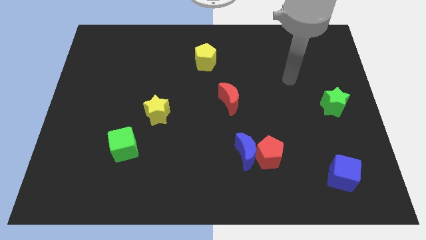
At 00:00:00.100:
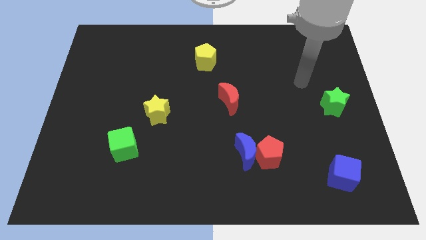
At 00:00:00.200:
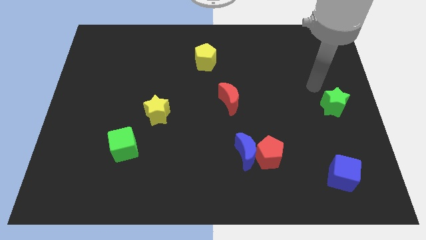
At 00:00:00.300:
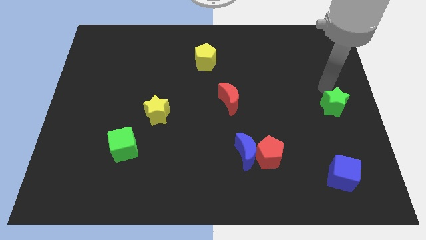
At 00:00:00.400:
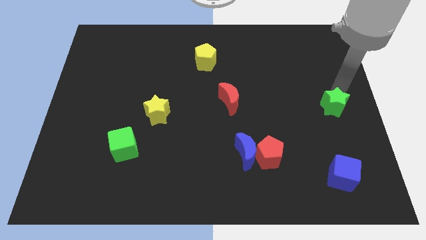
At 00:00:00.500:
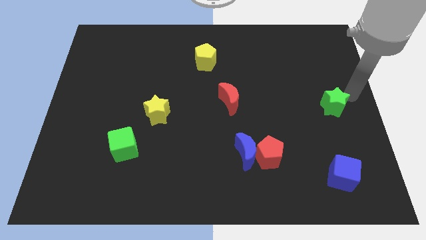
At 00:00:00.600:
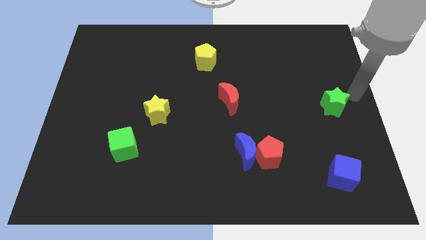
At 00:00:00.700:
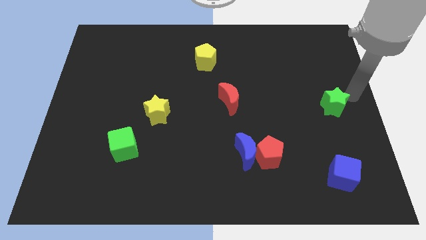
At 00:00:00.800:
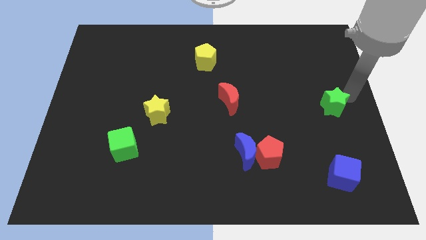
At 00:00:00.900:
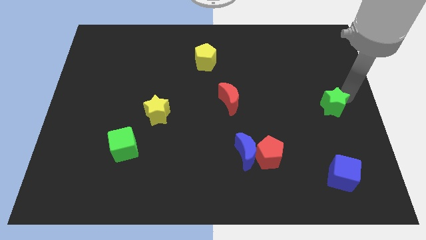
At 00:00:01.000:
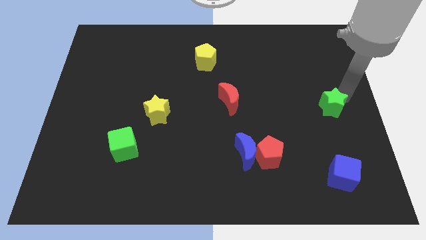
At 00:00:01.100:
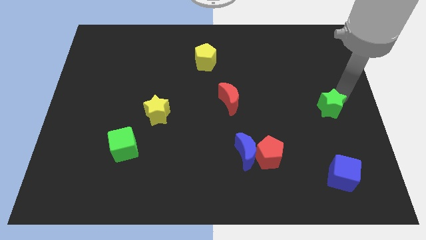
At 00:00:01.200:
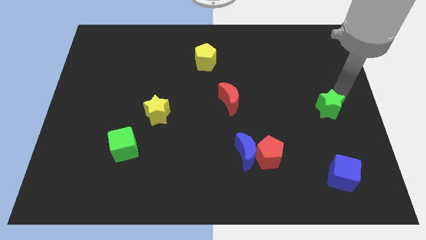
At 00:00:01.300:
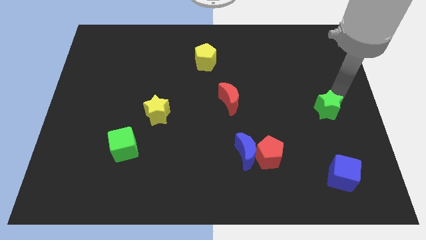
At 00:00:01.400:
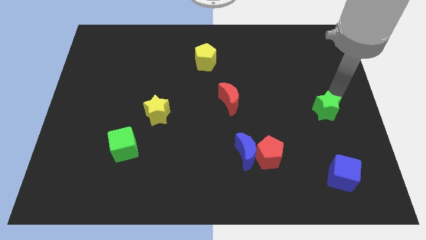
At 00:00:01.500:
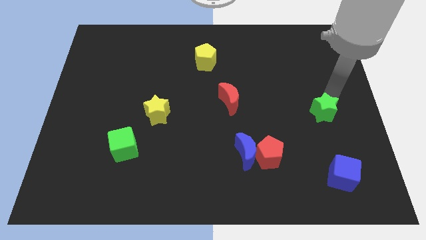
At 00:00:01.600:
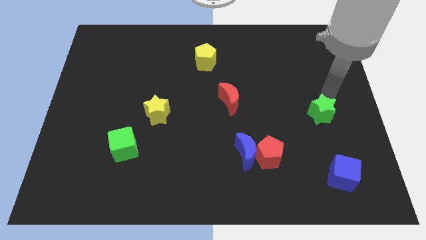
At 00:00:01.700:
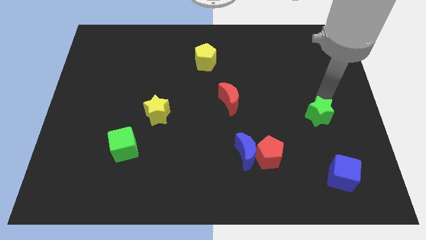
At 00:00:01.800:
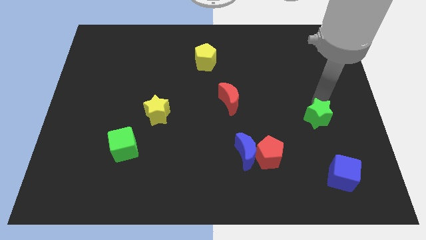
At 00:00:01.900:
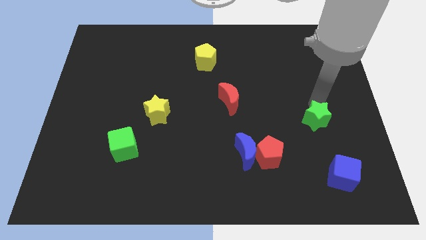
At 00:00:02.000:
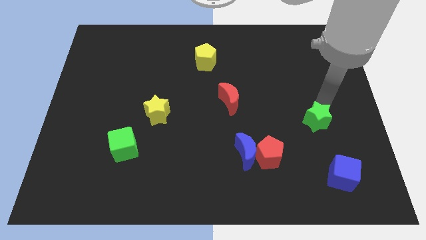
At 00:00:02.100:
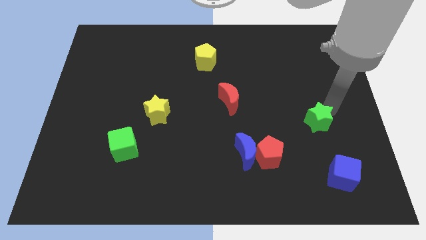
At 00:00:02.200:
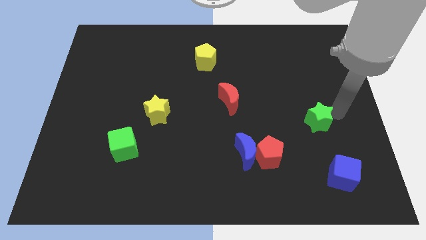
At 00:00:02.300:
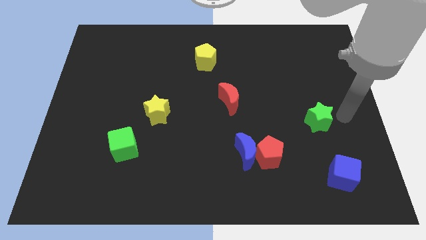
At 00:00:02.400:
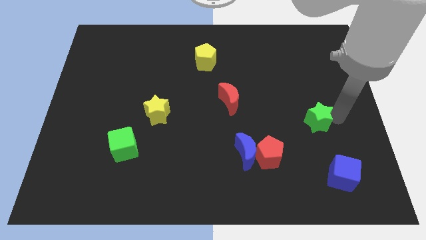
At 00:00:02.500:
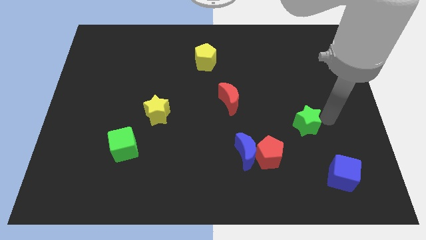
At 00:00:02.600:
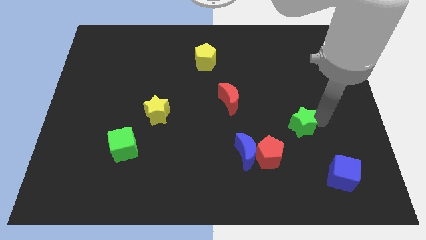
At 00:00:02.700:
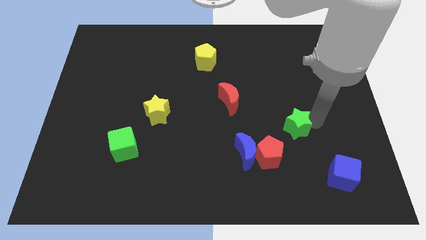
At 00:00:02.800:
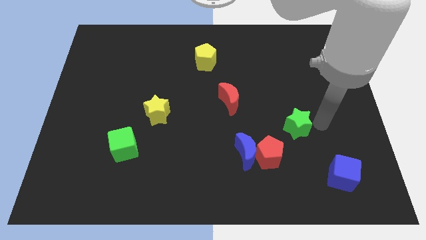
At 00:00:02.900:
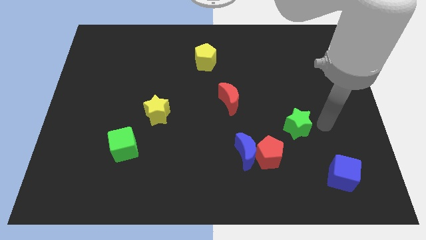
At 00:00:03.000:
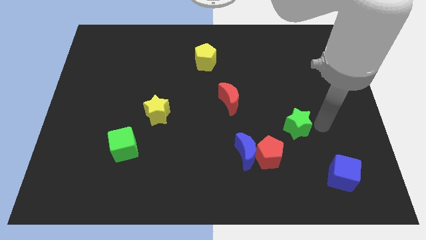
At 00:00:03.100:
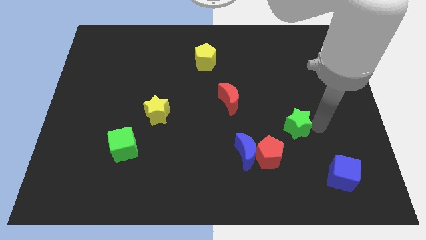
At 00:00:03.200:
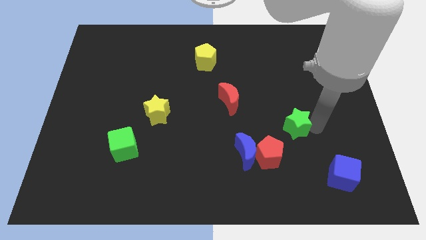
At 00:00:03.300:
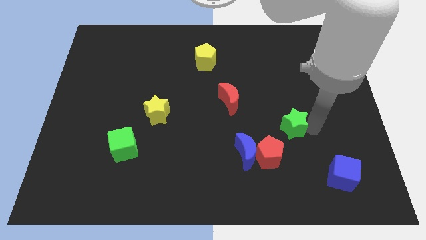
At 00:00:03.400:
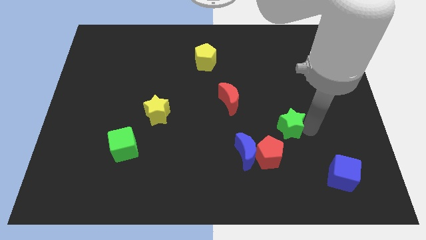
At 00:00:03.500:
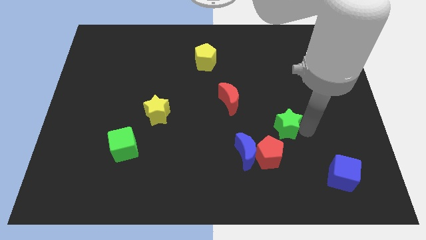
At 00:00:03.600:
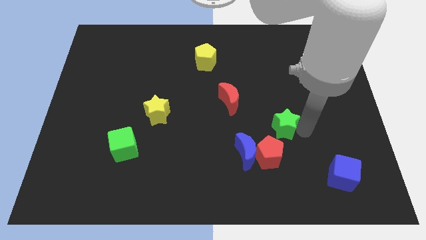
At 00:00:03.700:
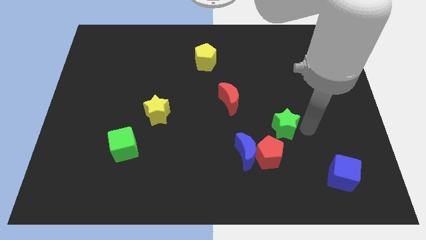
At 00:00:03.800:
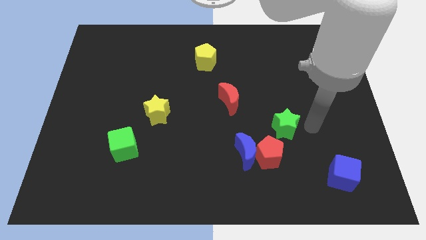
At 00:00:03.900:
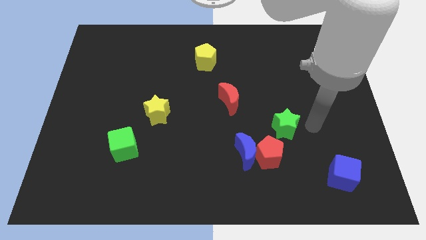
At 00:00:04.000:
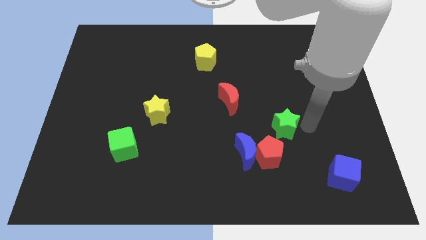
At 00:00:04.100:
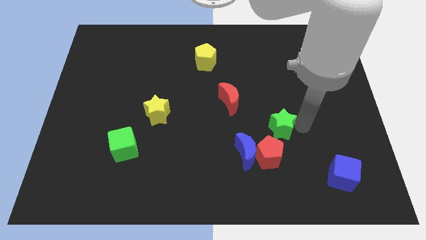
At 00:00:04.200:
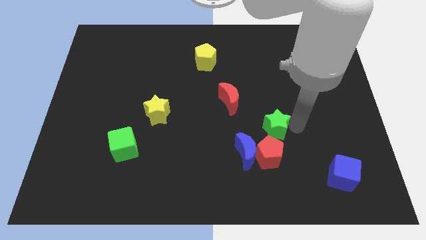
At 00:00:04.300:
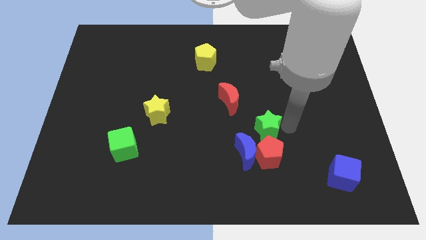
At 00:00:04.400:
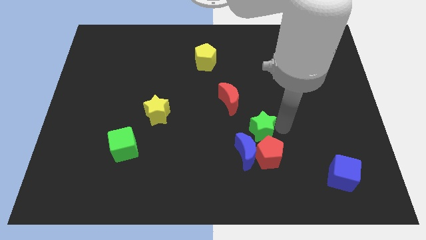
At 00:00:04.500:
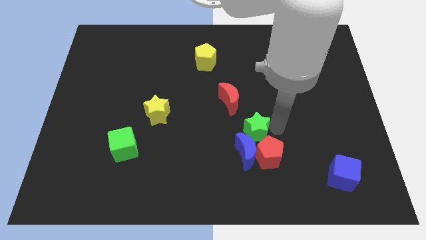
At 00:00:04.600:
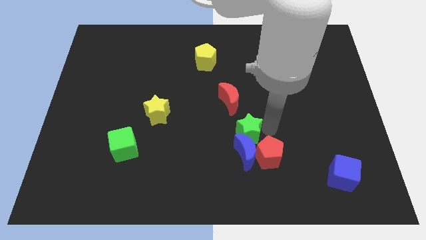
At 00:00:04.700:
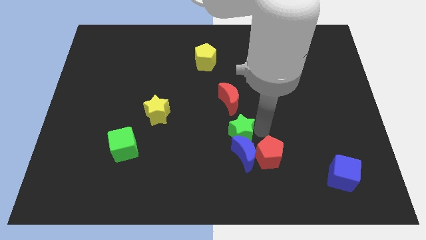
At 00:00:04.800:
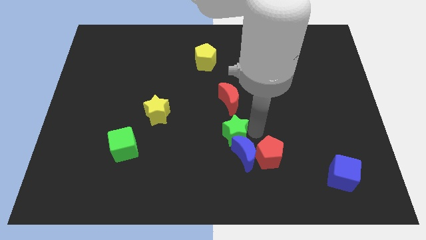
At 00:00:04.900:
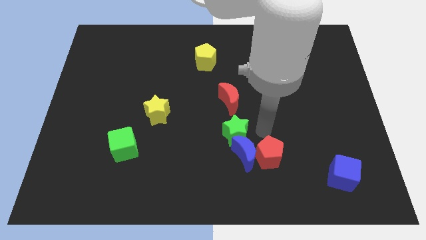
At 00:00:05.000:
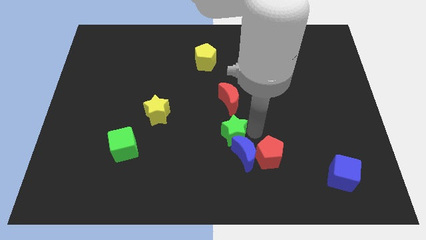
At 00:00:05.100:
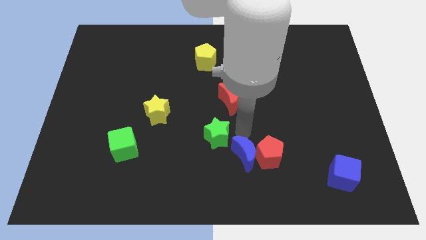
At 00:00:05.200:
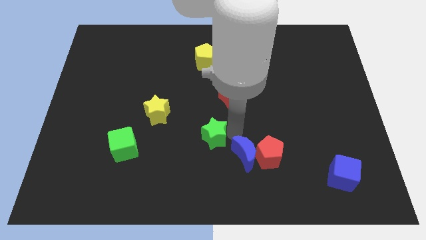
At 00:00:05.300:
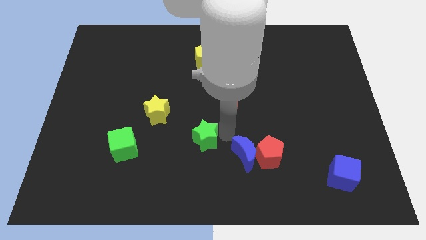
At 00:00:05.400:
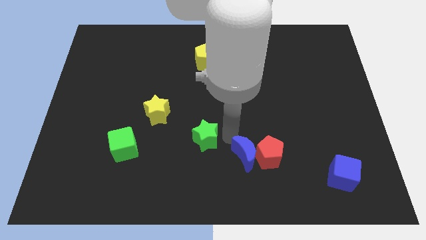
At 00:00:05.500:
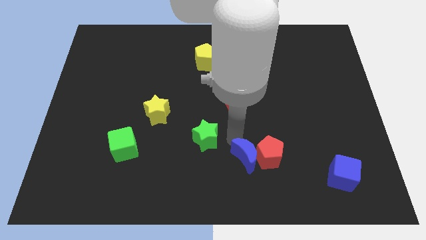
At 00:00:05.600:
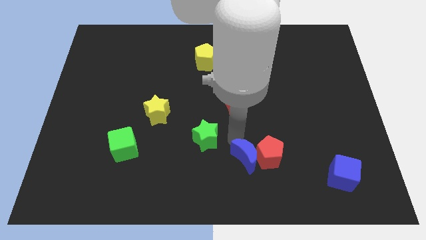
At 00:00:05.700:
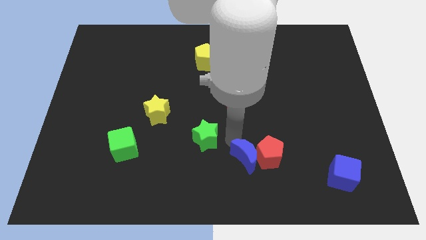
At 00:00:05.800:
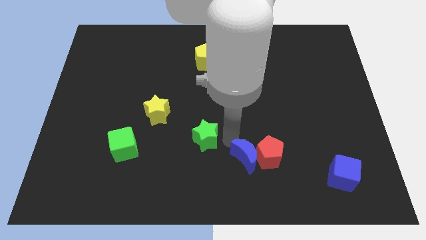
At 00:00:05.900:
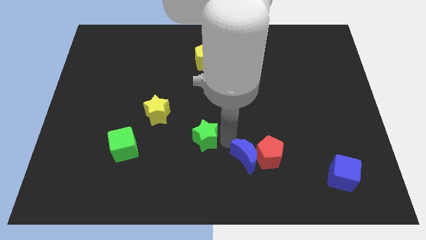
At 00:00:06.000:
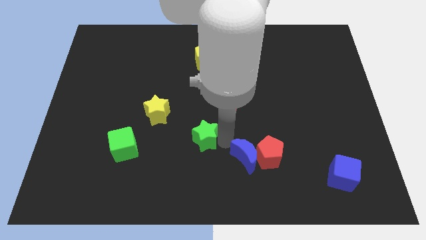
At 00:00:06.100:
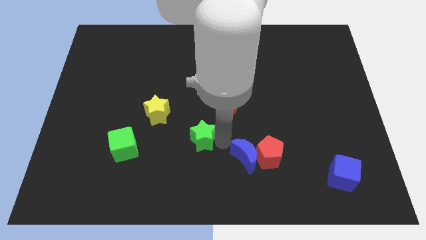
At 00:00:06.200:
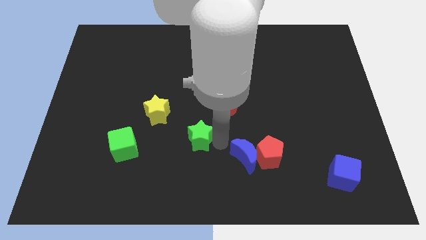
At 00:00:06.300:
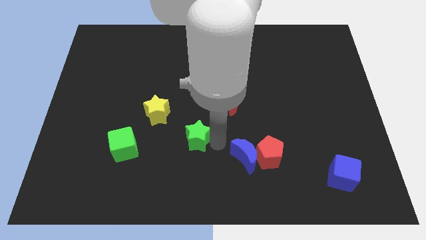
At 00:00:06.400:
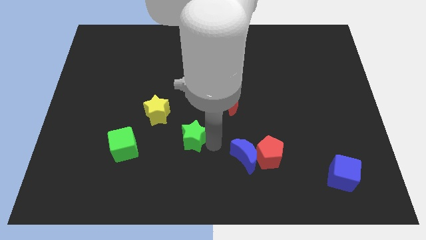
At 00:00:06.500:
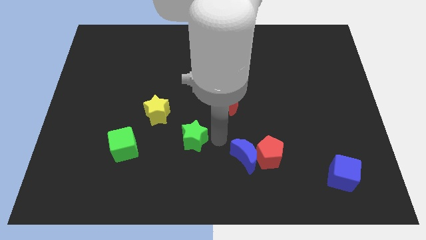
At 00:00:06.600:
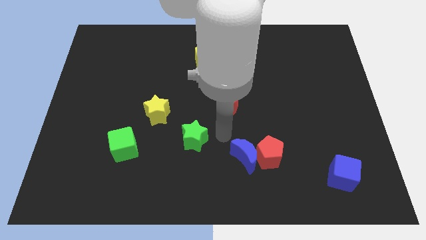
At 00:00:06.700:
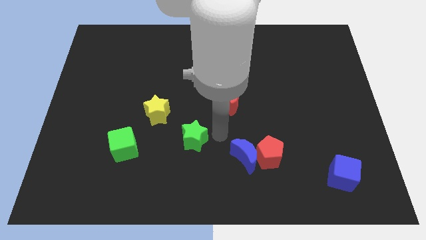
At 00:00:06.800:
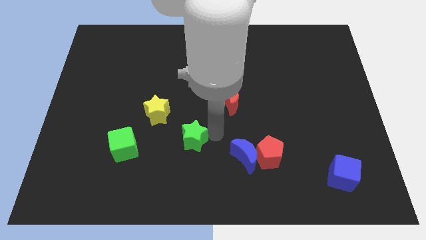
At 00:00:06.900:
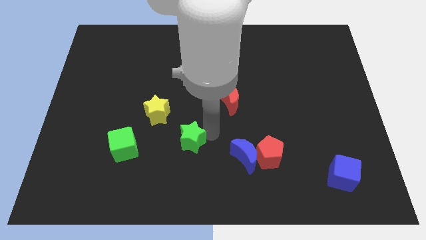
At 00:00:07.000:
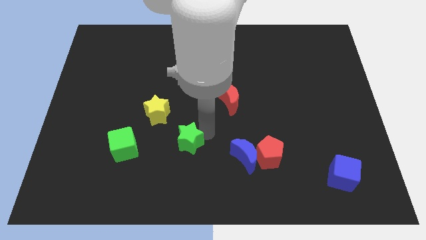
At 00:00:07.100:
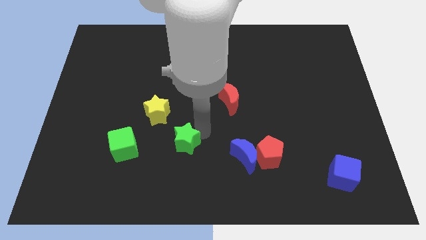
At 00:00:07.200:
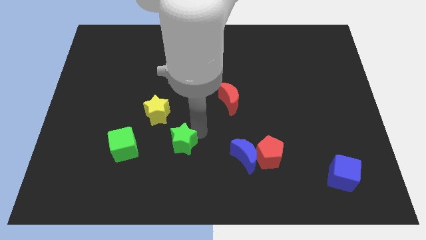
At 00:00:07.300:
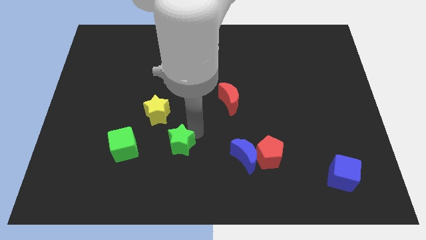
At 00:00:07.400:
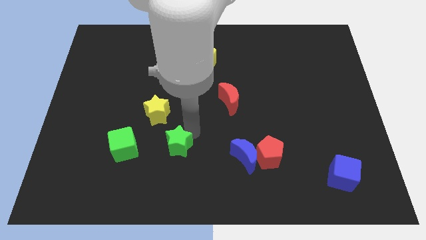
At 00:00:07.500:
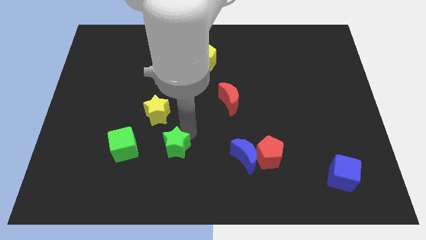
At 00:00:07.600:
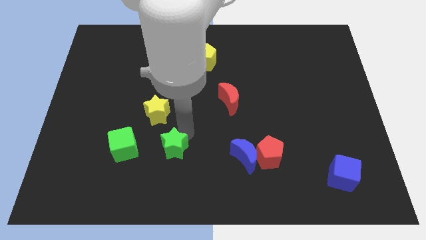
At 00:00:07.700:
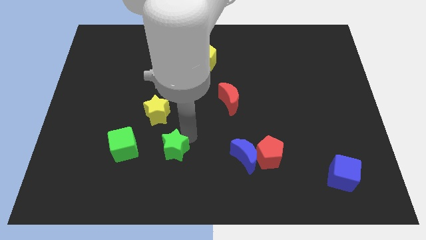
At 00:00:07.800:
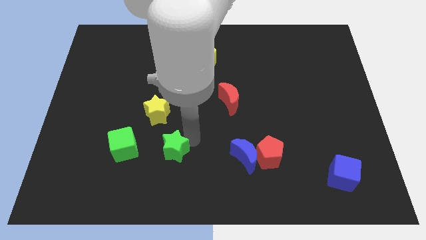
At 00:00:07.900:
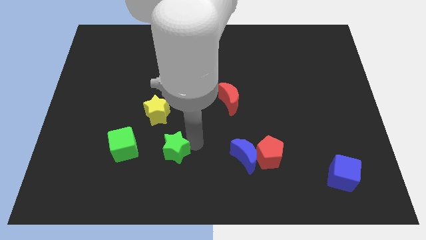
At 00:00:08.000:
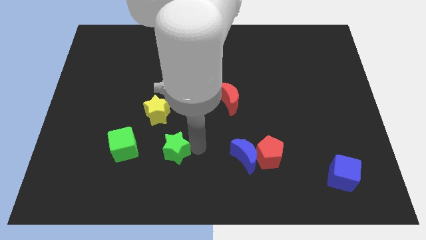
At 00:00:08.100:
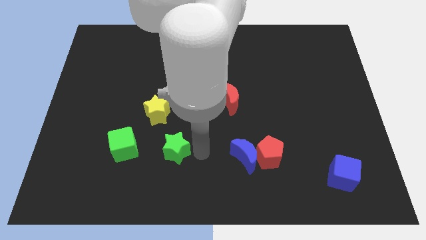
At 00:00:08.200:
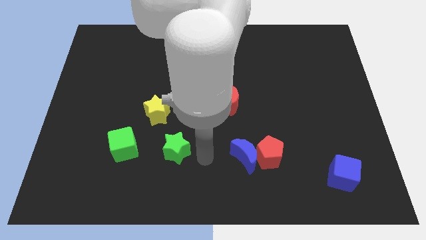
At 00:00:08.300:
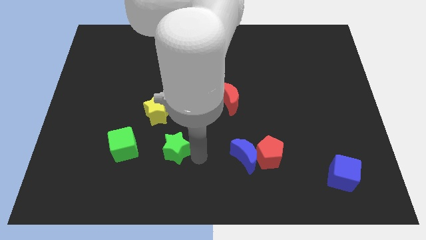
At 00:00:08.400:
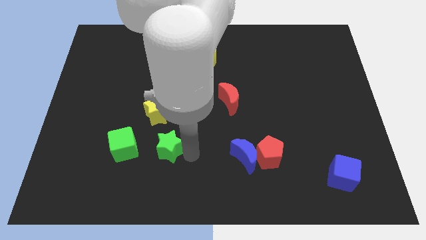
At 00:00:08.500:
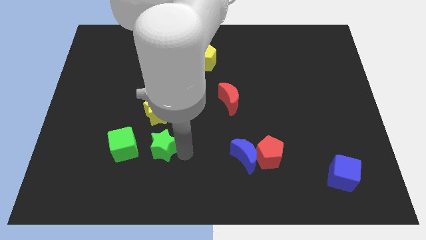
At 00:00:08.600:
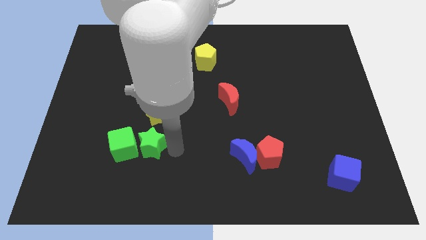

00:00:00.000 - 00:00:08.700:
slide the green star towards the green cube
